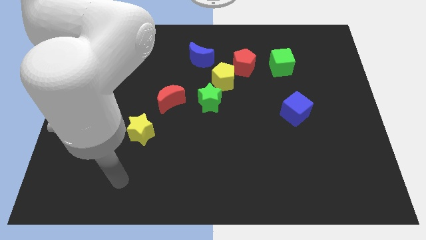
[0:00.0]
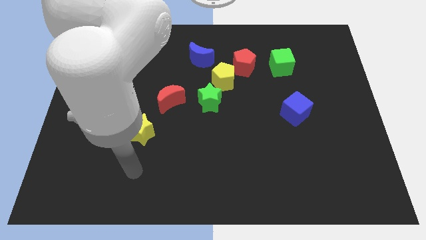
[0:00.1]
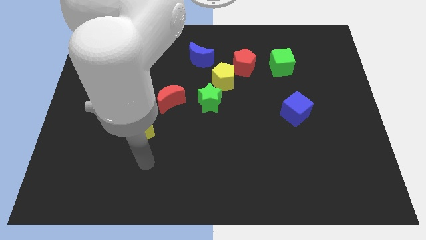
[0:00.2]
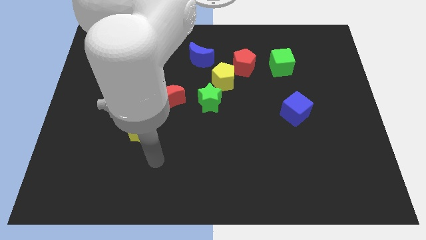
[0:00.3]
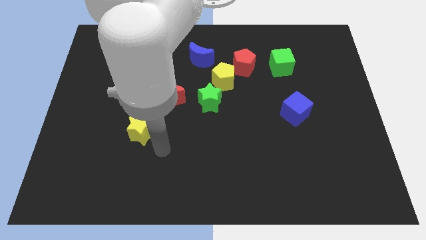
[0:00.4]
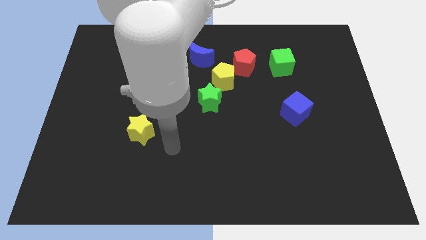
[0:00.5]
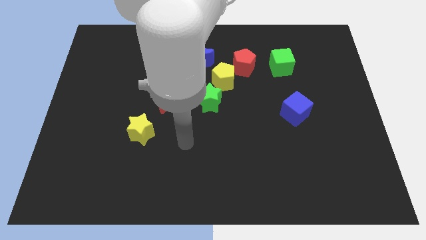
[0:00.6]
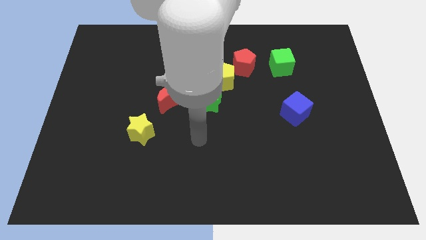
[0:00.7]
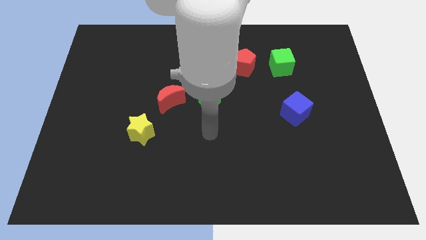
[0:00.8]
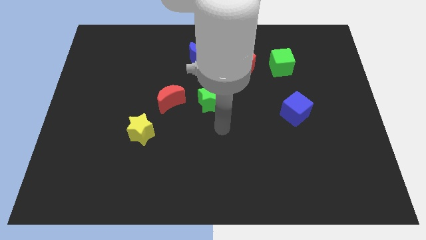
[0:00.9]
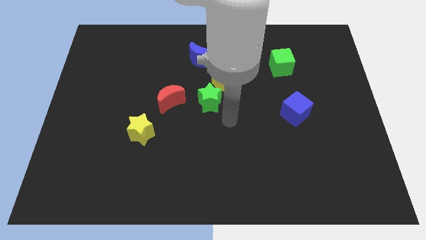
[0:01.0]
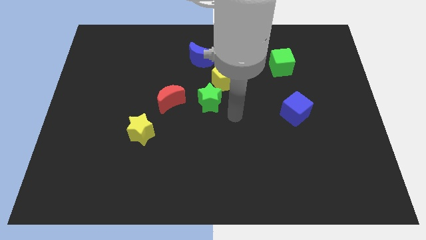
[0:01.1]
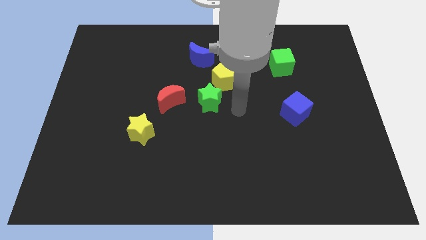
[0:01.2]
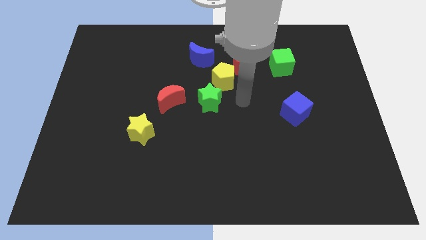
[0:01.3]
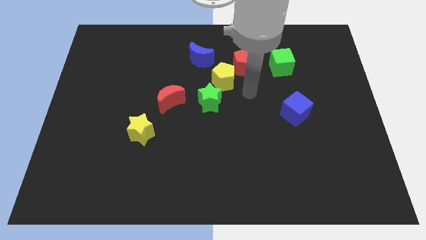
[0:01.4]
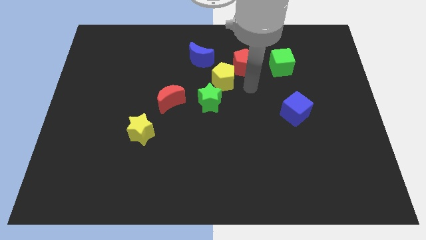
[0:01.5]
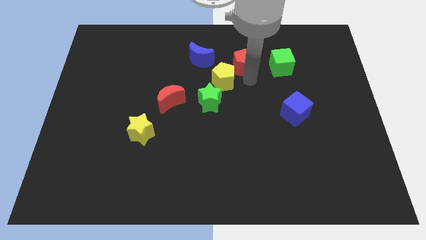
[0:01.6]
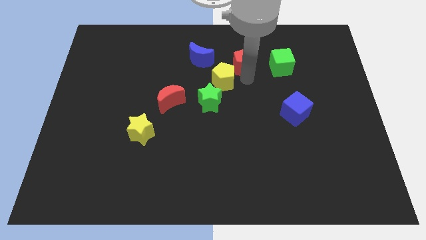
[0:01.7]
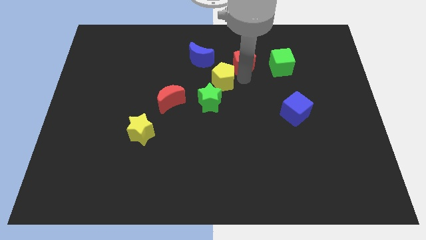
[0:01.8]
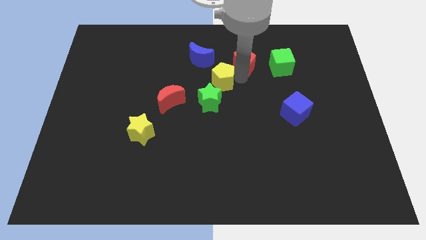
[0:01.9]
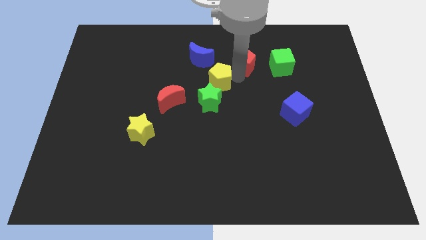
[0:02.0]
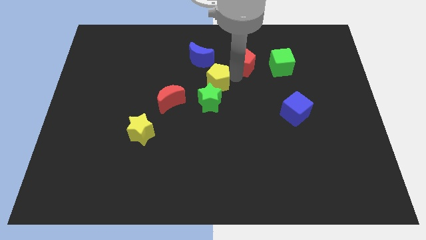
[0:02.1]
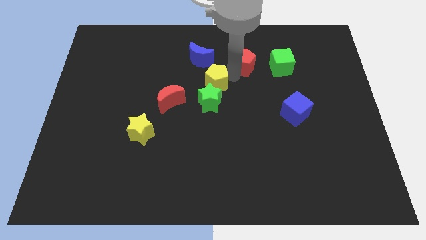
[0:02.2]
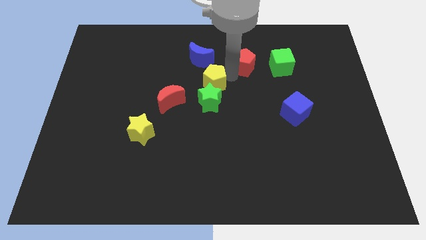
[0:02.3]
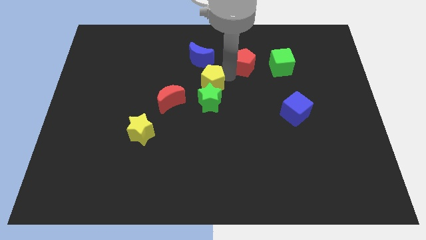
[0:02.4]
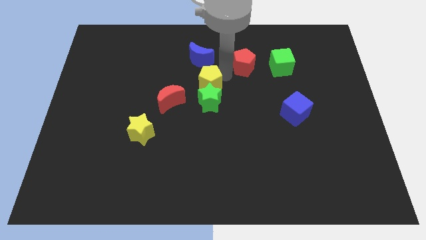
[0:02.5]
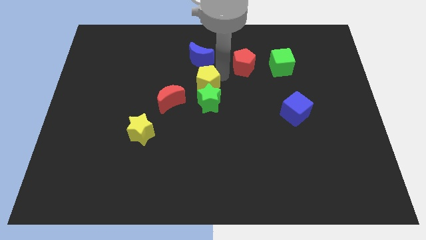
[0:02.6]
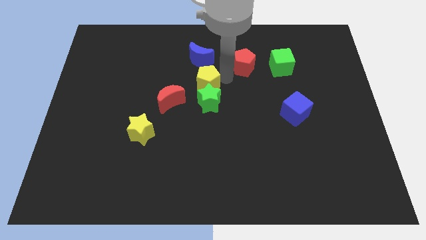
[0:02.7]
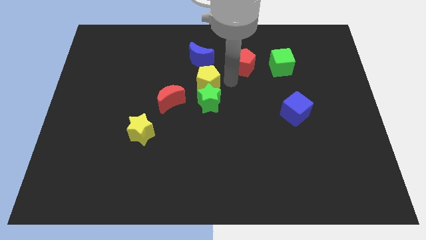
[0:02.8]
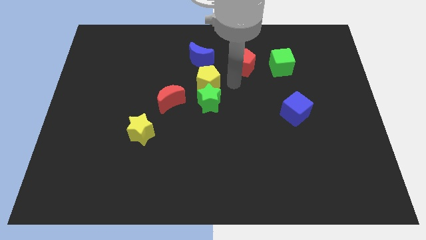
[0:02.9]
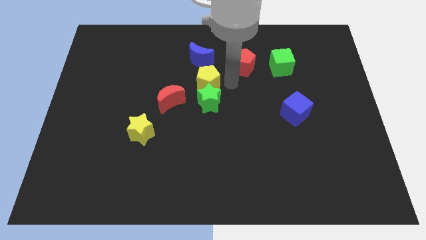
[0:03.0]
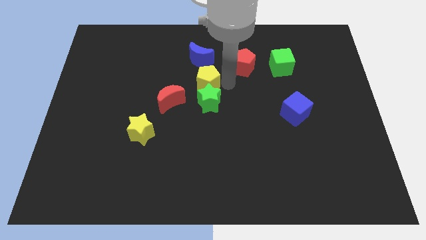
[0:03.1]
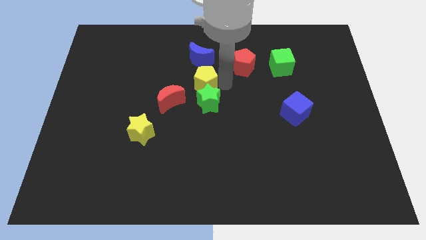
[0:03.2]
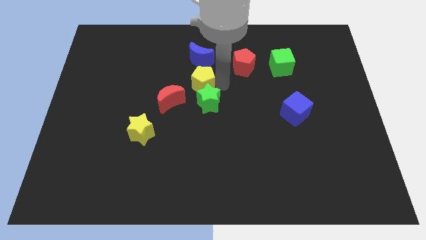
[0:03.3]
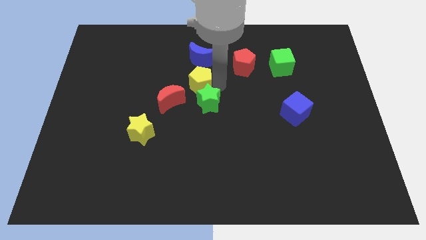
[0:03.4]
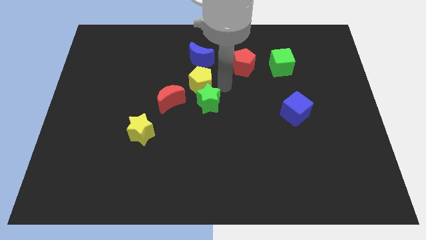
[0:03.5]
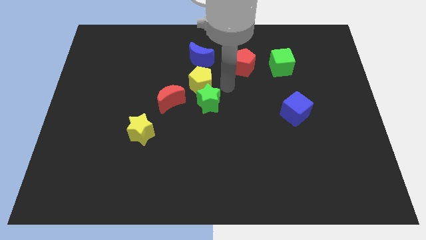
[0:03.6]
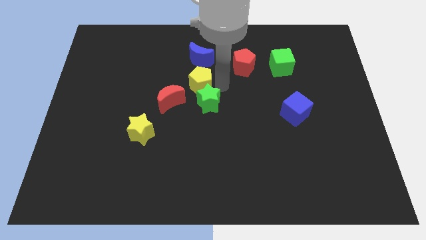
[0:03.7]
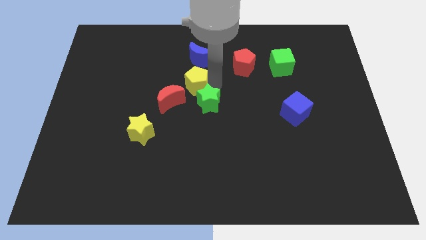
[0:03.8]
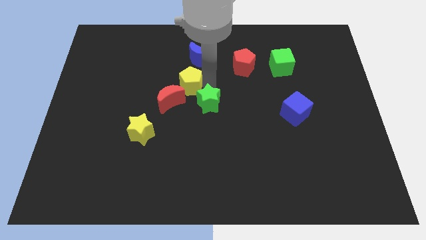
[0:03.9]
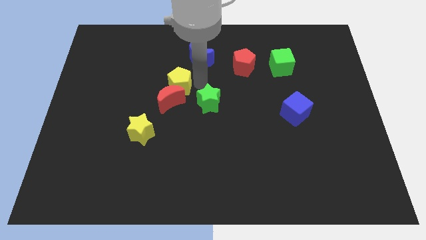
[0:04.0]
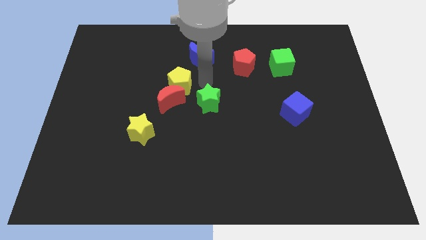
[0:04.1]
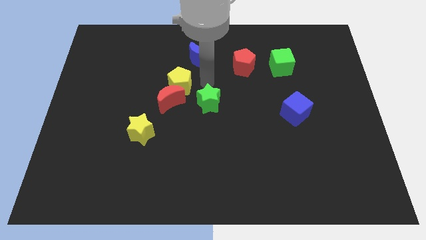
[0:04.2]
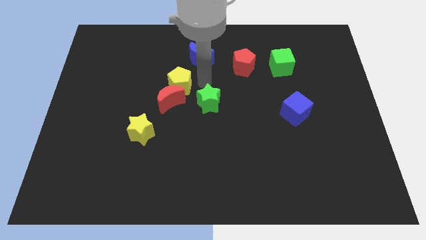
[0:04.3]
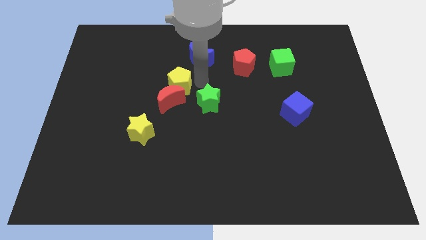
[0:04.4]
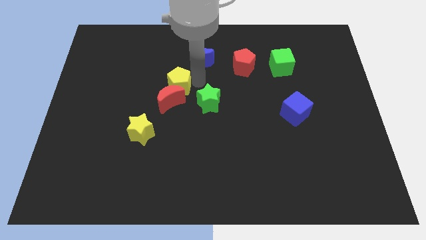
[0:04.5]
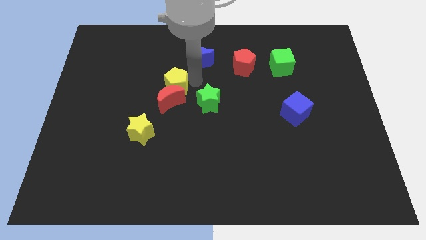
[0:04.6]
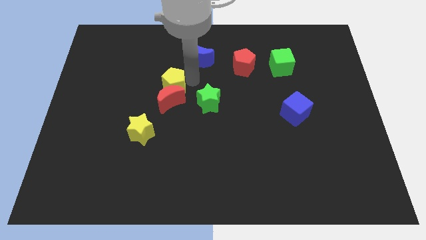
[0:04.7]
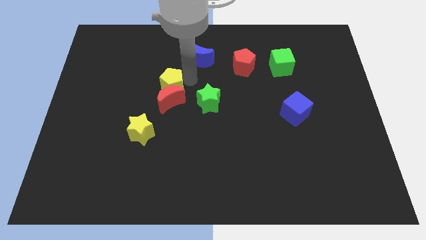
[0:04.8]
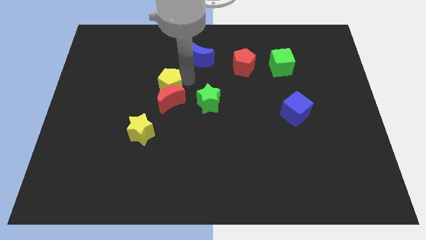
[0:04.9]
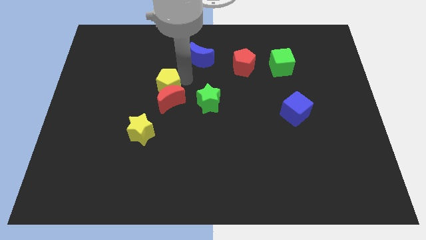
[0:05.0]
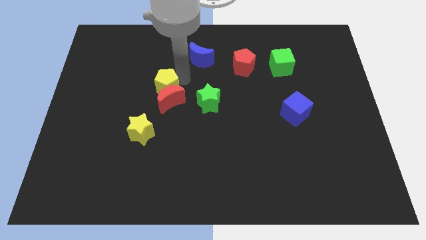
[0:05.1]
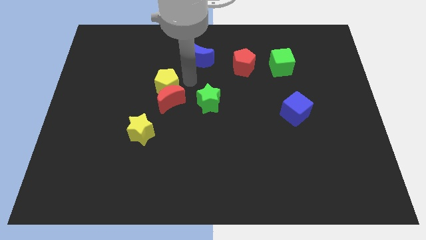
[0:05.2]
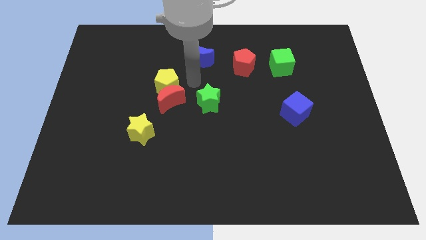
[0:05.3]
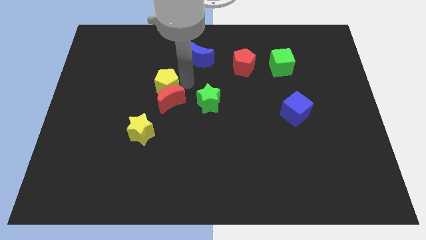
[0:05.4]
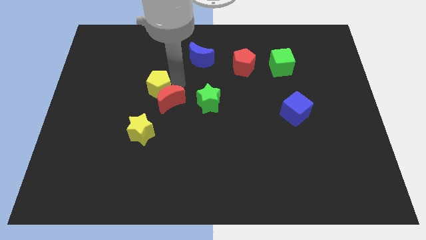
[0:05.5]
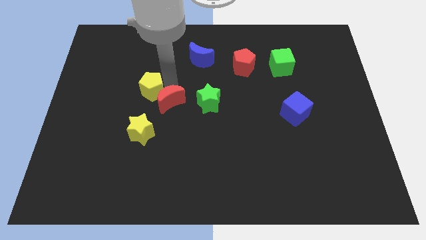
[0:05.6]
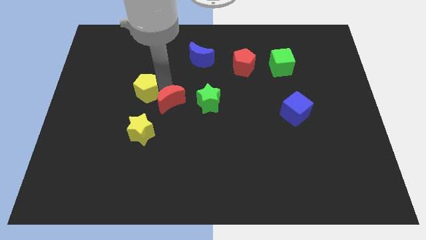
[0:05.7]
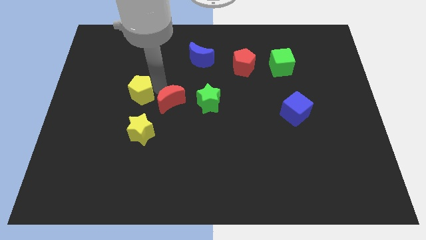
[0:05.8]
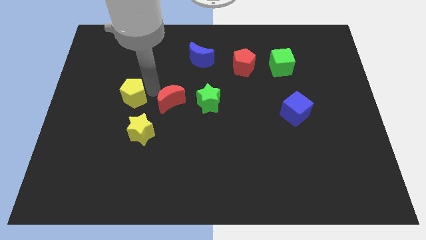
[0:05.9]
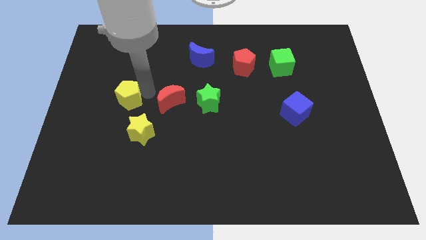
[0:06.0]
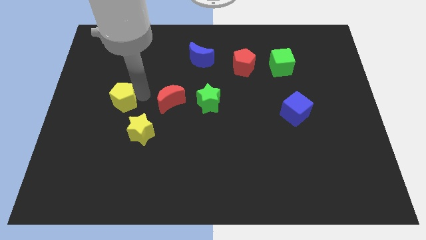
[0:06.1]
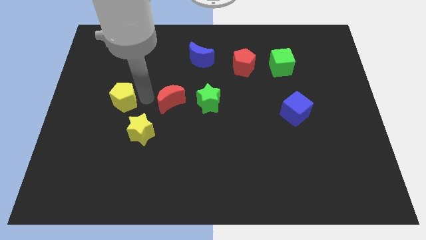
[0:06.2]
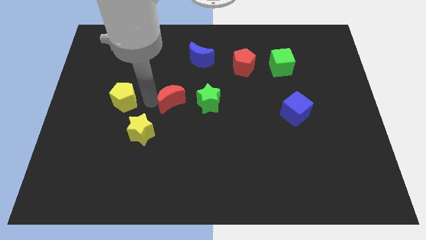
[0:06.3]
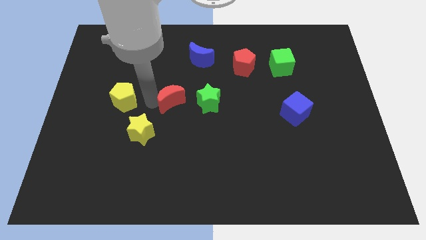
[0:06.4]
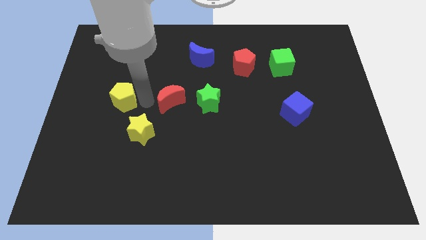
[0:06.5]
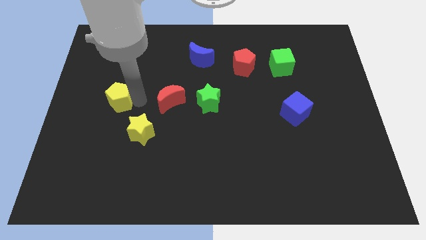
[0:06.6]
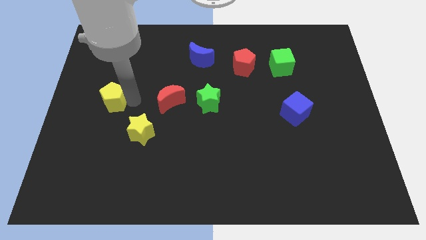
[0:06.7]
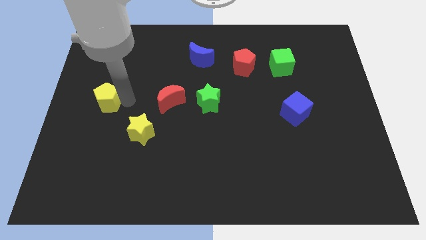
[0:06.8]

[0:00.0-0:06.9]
slide the yellow pentagon to the left side
